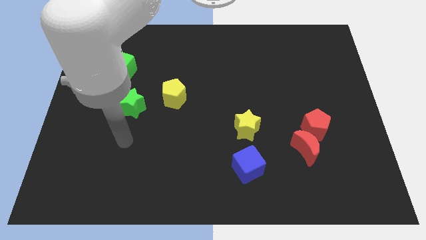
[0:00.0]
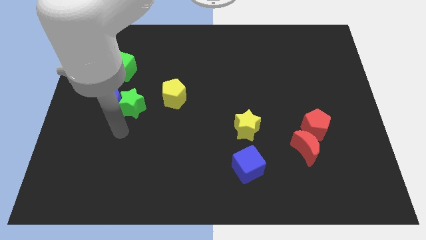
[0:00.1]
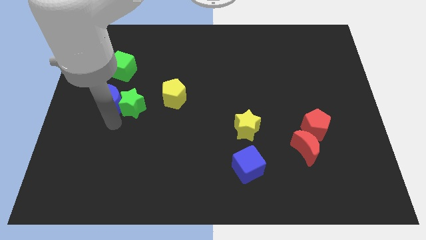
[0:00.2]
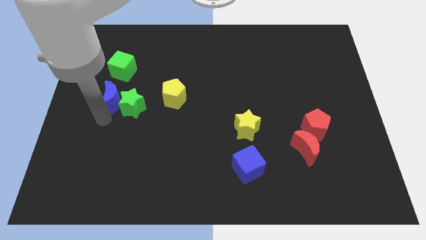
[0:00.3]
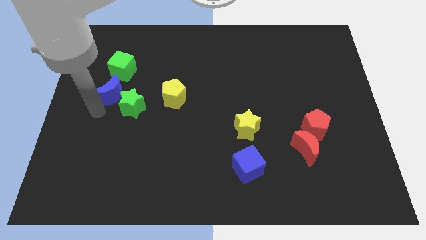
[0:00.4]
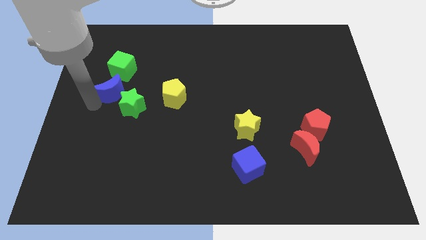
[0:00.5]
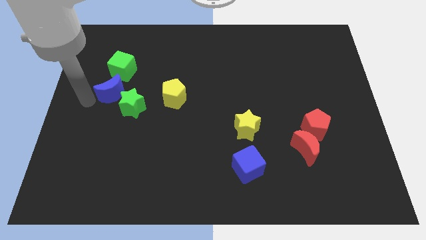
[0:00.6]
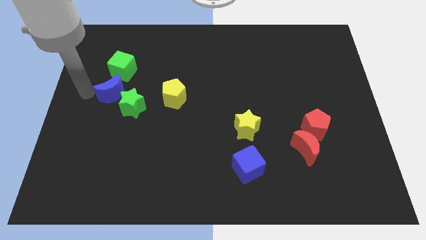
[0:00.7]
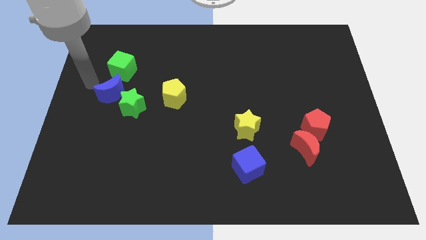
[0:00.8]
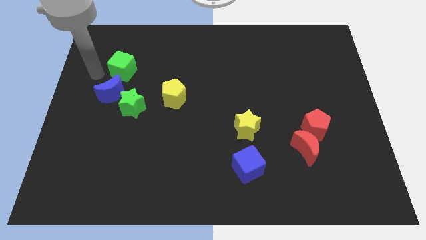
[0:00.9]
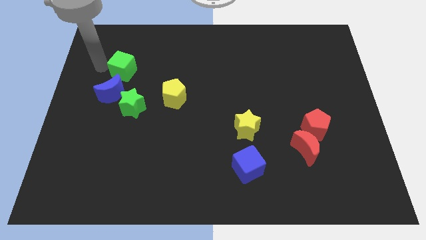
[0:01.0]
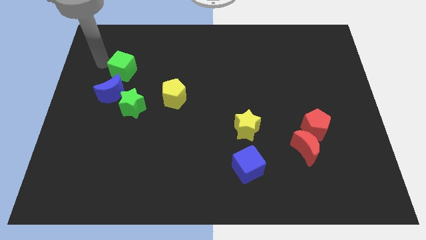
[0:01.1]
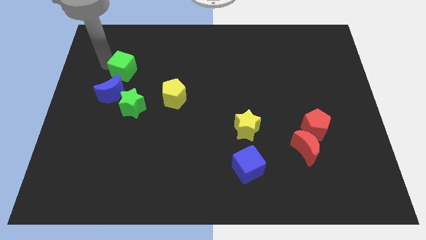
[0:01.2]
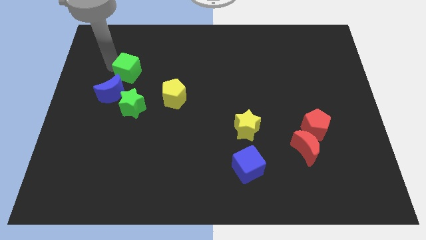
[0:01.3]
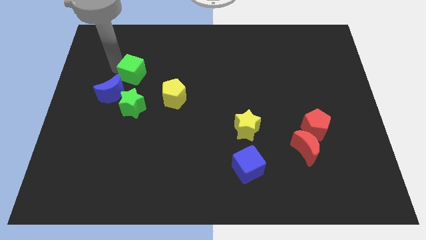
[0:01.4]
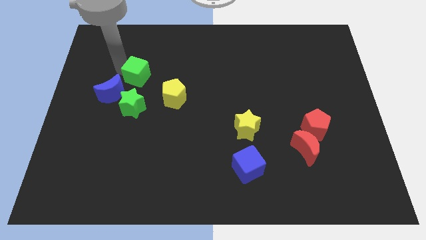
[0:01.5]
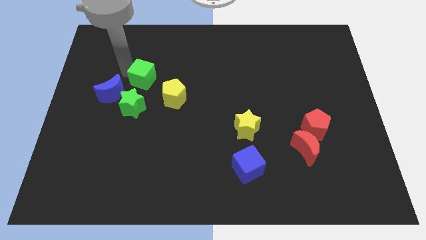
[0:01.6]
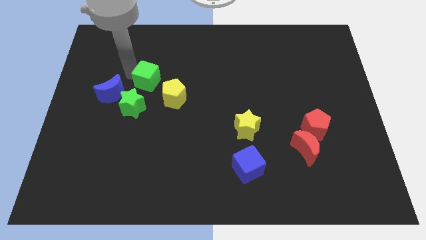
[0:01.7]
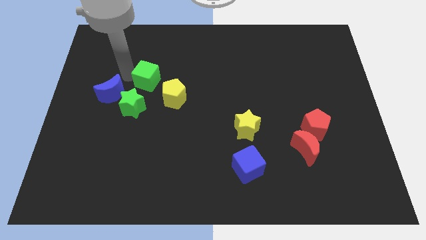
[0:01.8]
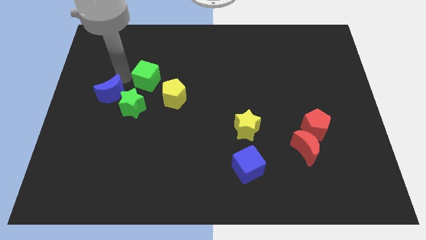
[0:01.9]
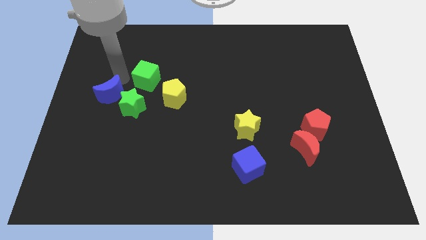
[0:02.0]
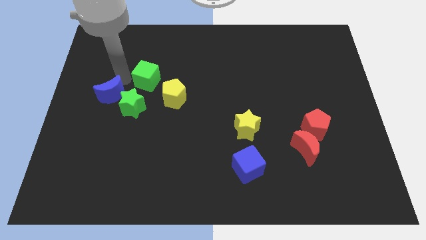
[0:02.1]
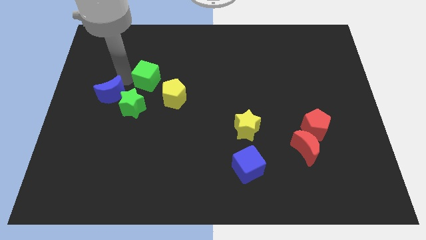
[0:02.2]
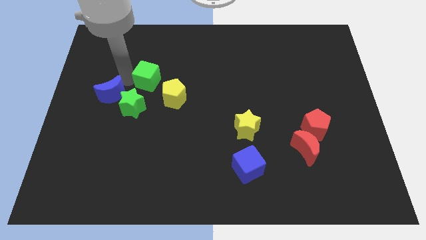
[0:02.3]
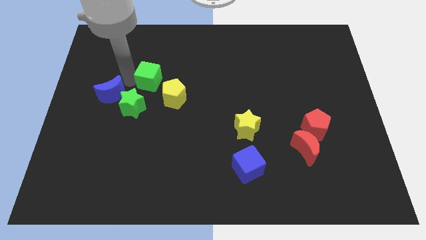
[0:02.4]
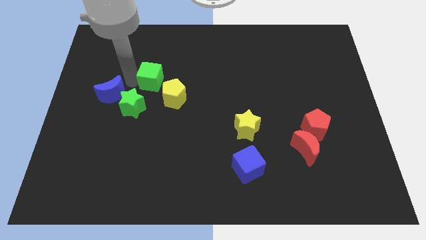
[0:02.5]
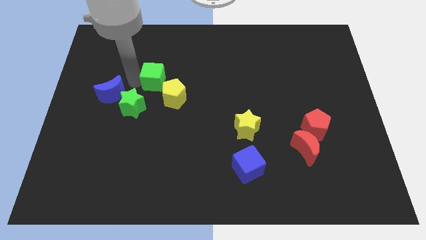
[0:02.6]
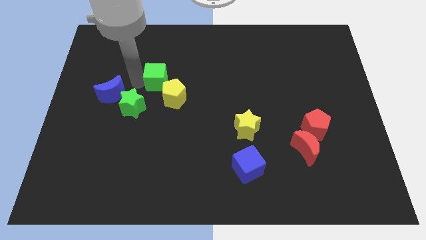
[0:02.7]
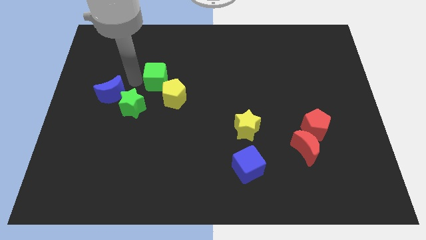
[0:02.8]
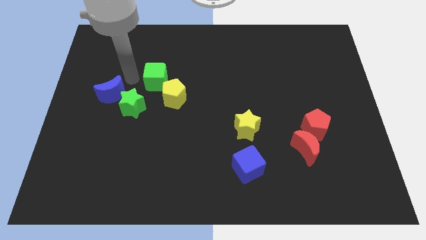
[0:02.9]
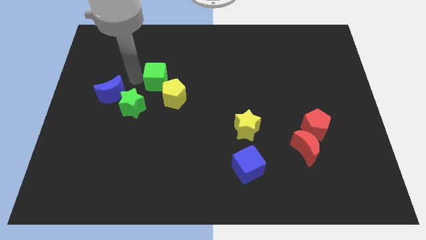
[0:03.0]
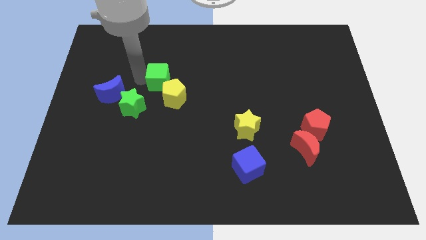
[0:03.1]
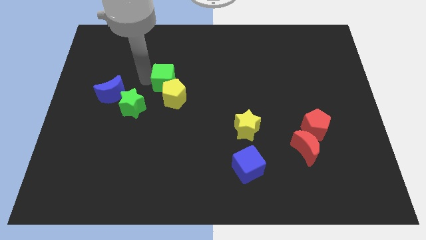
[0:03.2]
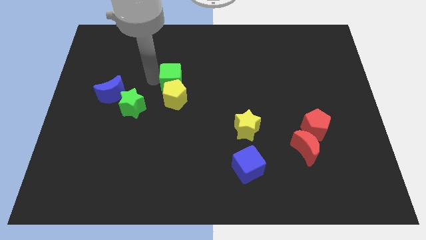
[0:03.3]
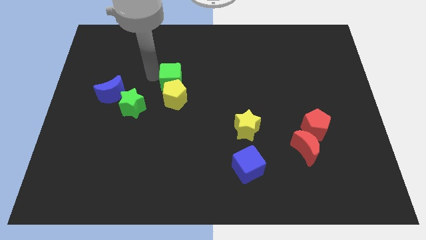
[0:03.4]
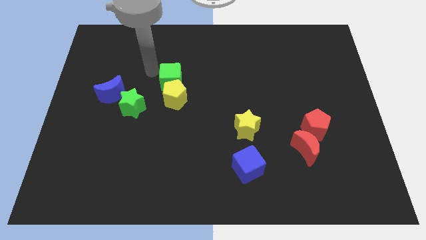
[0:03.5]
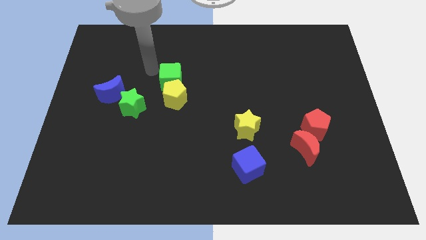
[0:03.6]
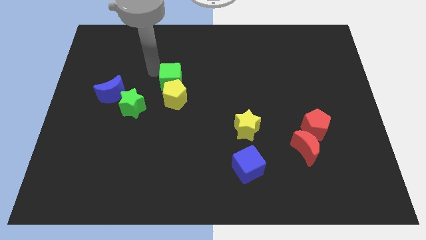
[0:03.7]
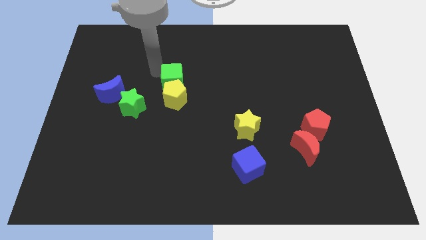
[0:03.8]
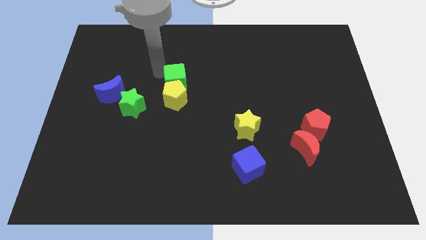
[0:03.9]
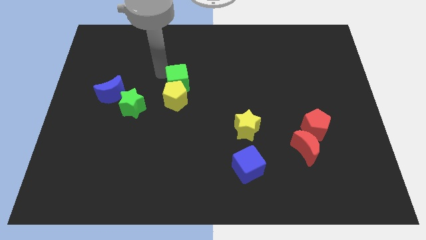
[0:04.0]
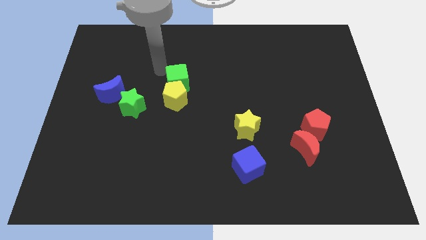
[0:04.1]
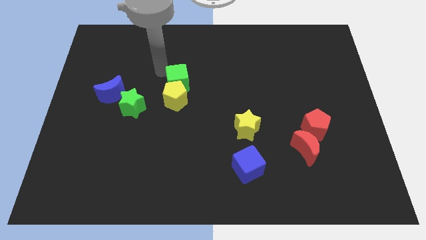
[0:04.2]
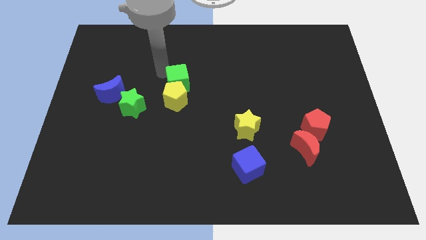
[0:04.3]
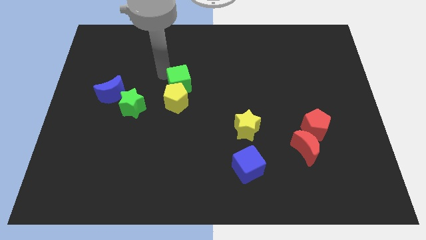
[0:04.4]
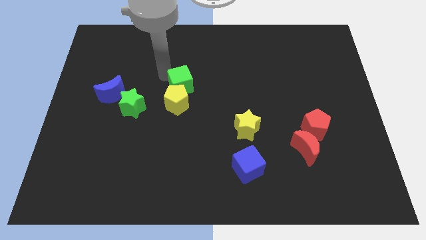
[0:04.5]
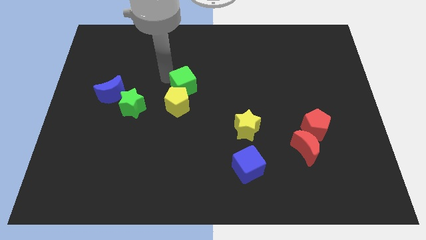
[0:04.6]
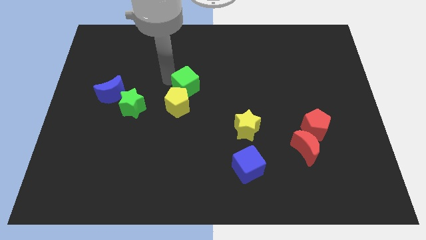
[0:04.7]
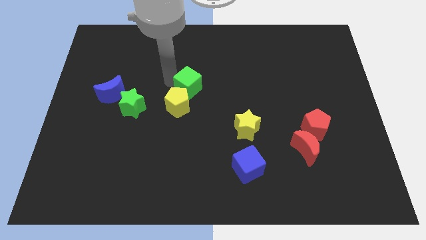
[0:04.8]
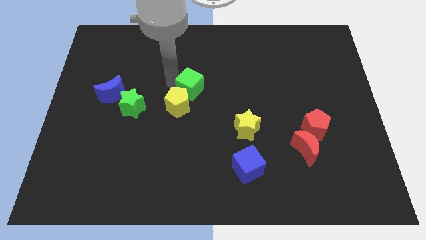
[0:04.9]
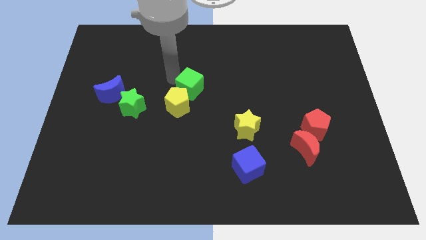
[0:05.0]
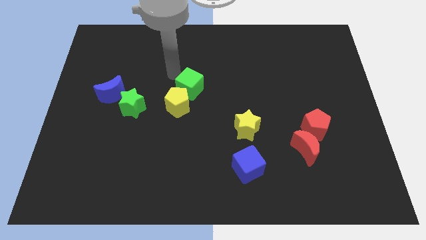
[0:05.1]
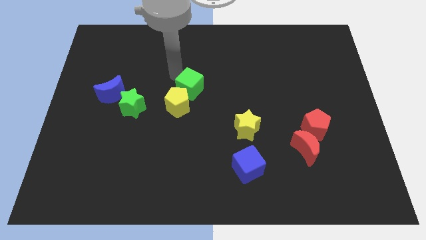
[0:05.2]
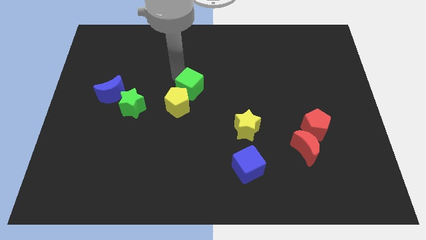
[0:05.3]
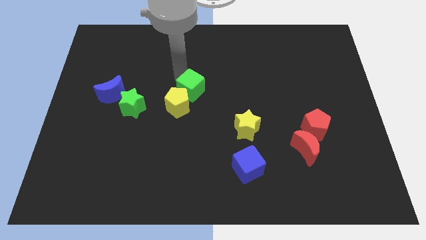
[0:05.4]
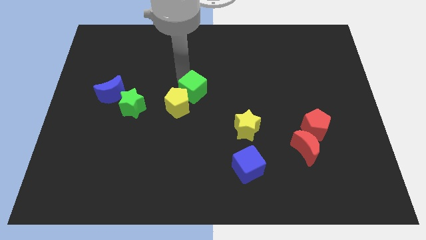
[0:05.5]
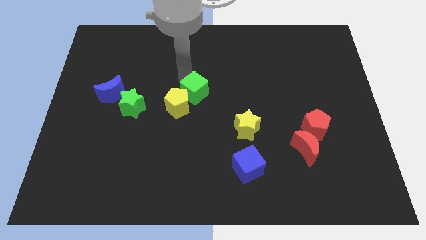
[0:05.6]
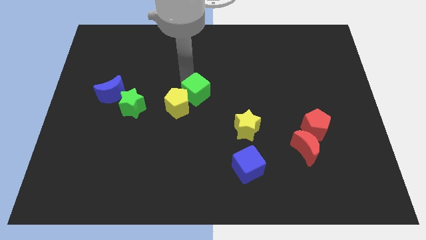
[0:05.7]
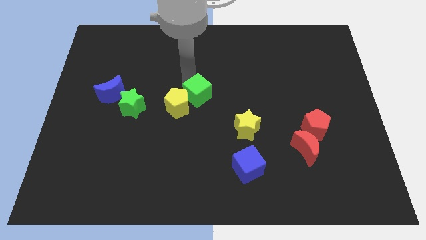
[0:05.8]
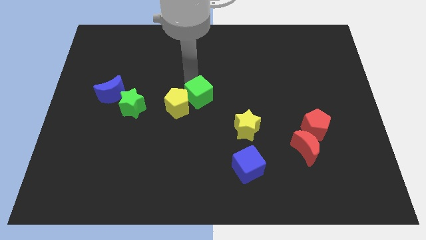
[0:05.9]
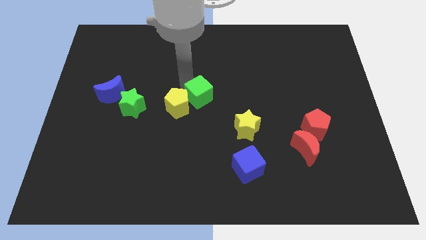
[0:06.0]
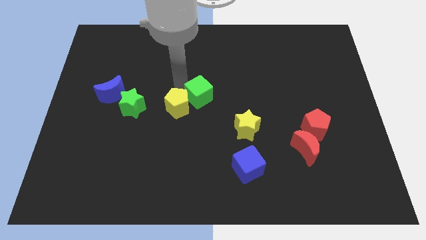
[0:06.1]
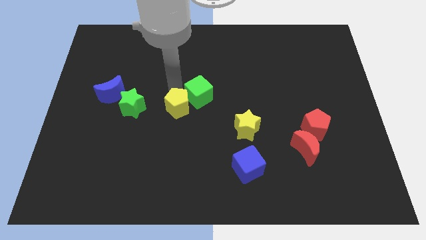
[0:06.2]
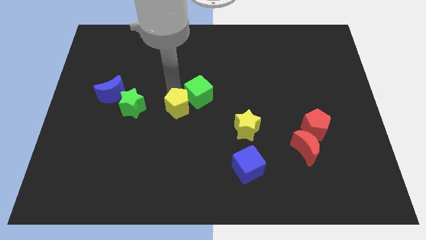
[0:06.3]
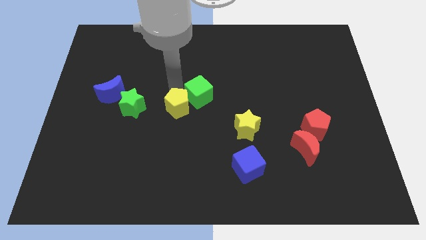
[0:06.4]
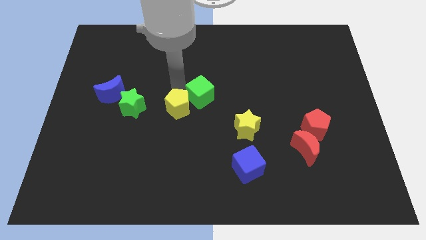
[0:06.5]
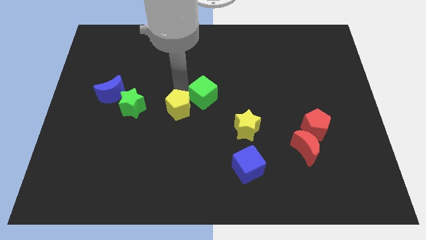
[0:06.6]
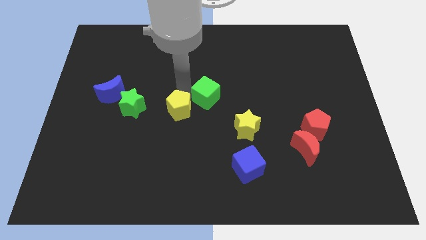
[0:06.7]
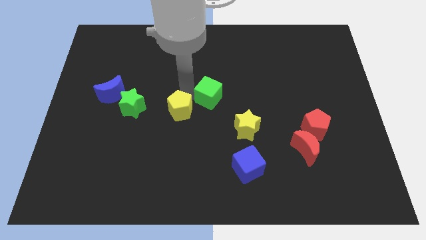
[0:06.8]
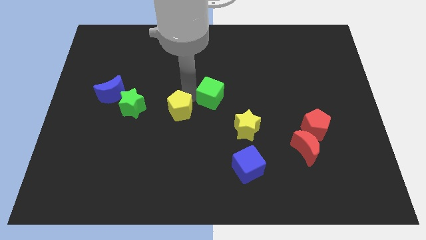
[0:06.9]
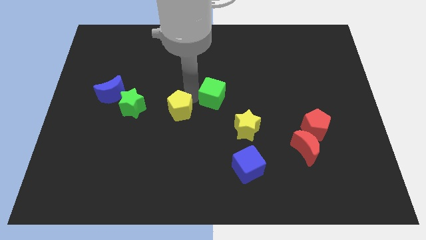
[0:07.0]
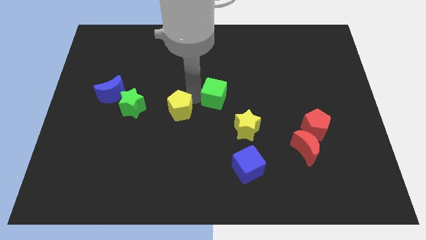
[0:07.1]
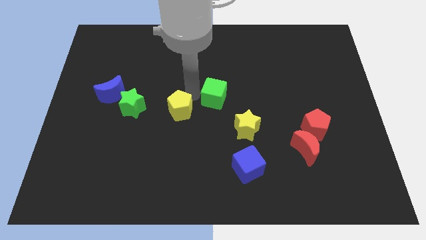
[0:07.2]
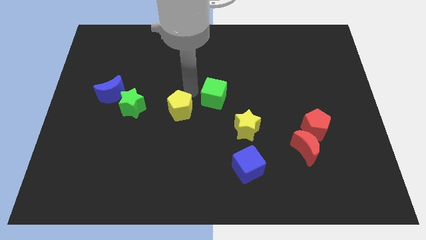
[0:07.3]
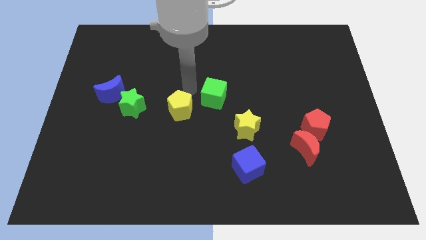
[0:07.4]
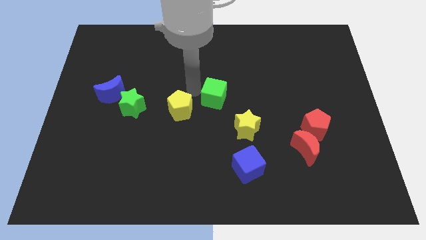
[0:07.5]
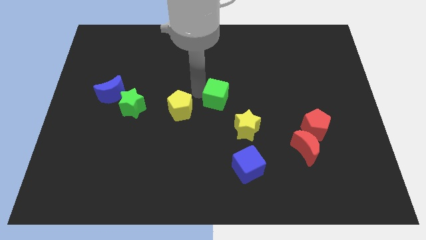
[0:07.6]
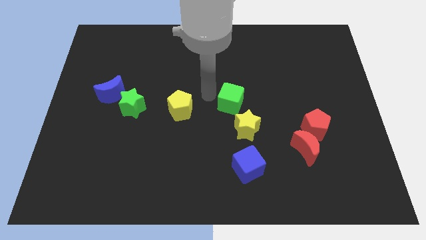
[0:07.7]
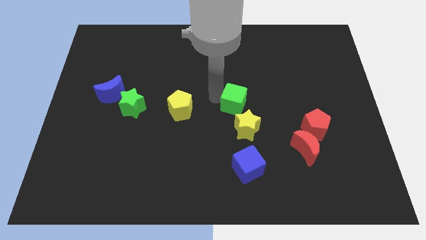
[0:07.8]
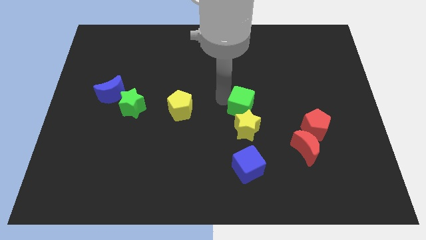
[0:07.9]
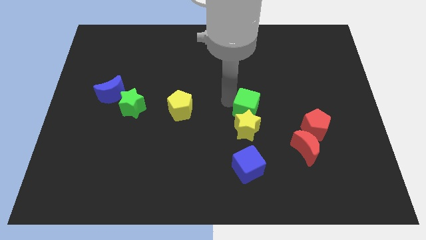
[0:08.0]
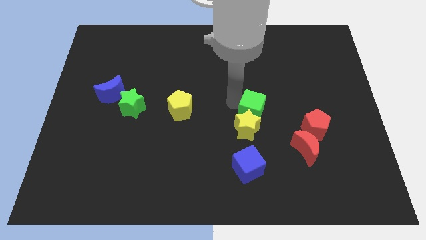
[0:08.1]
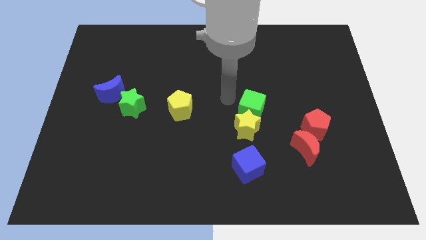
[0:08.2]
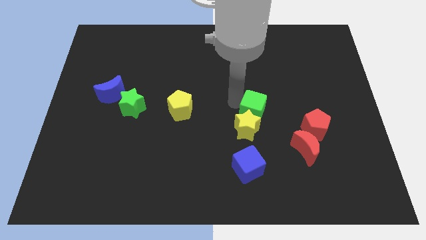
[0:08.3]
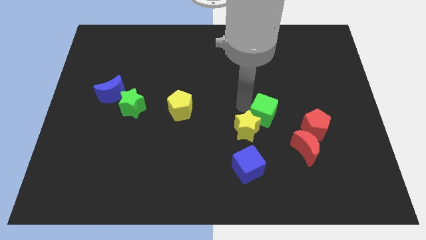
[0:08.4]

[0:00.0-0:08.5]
slide the green cube right of the yellow star
